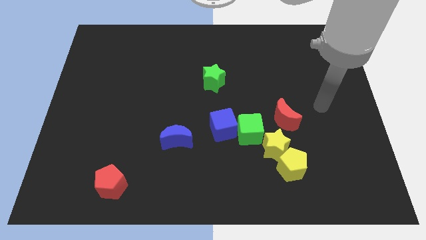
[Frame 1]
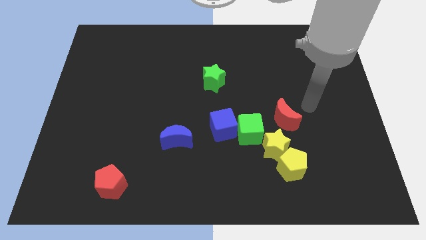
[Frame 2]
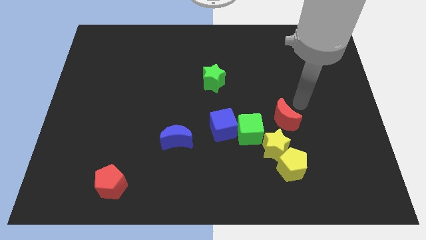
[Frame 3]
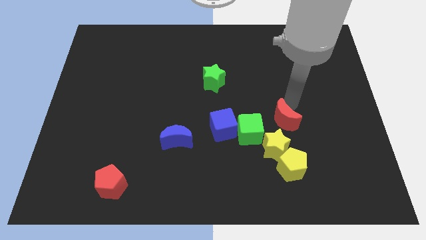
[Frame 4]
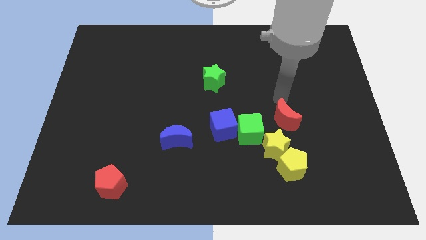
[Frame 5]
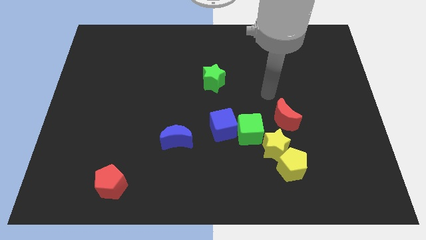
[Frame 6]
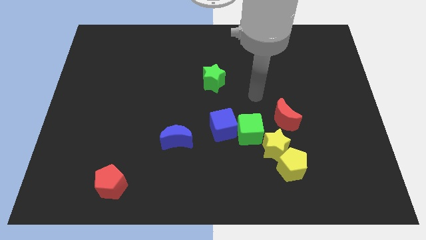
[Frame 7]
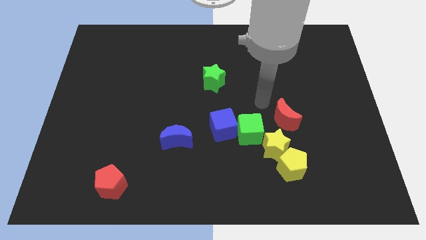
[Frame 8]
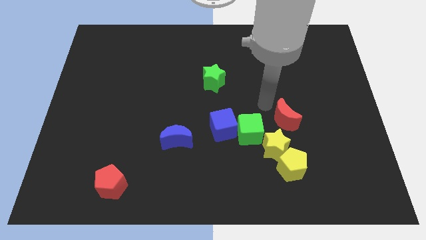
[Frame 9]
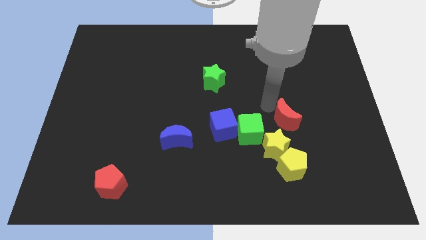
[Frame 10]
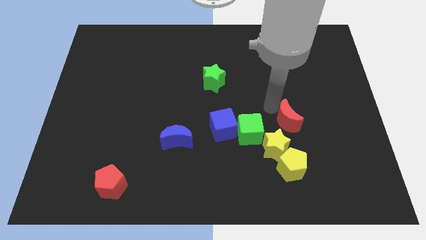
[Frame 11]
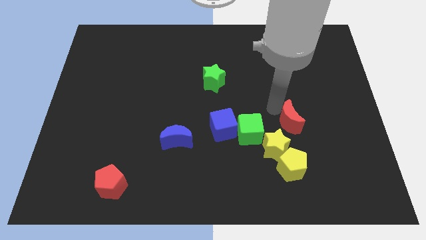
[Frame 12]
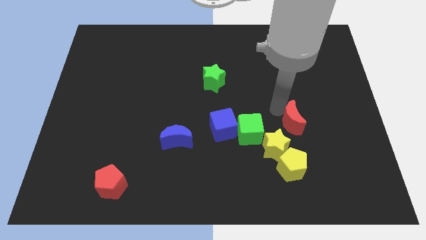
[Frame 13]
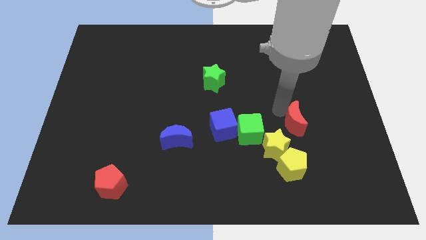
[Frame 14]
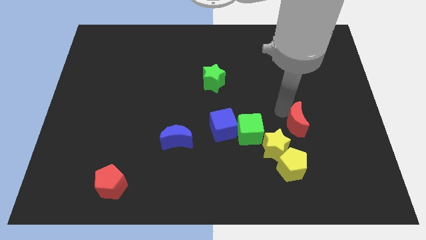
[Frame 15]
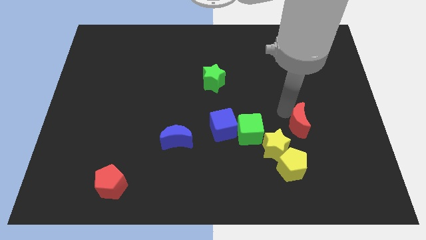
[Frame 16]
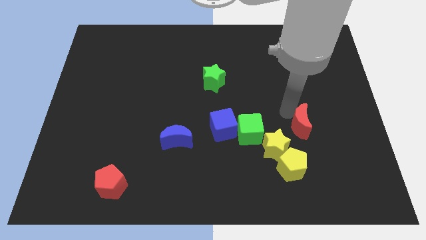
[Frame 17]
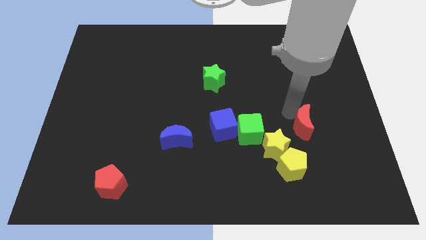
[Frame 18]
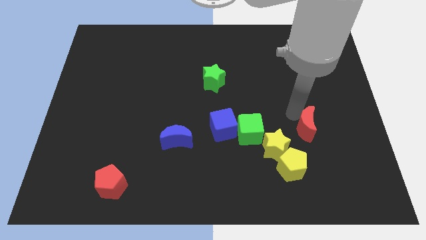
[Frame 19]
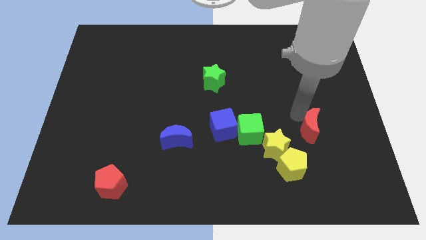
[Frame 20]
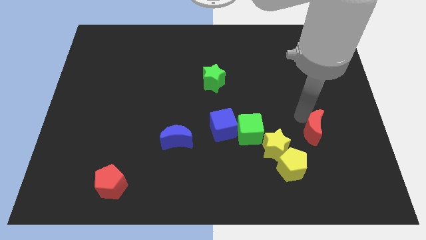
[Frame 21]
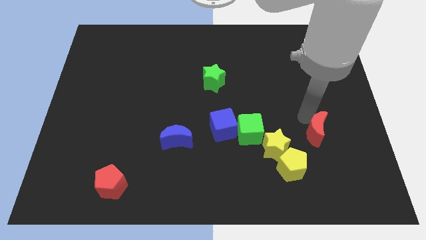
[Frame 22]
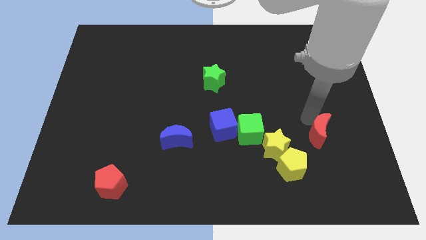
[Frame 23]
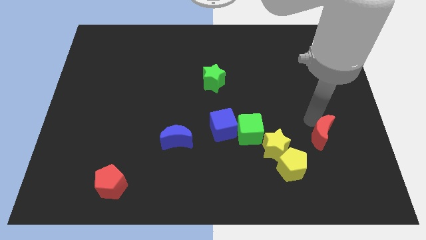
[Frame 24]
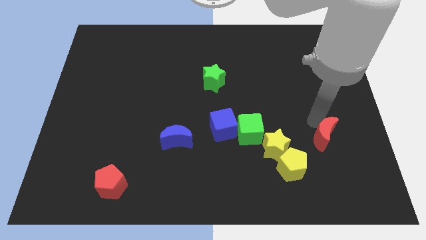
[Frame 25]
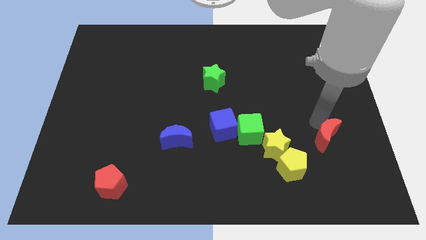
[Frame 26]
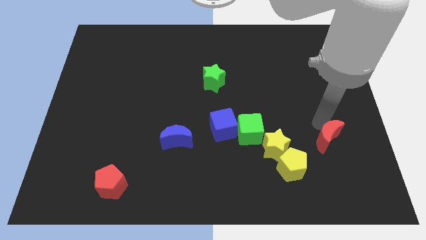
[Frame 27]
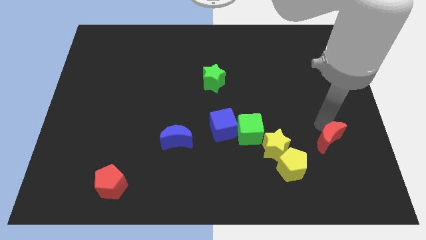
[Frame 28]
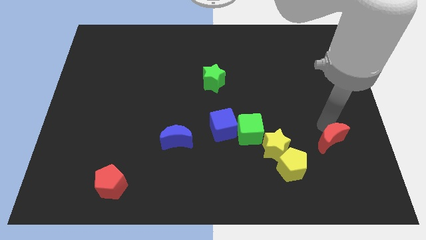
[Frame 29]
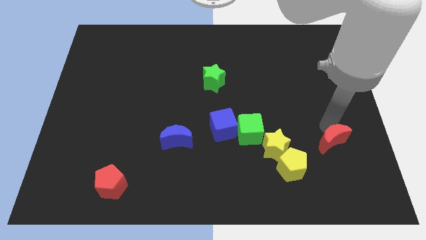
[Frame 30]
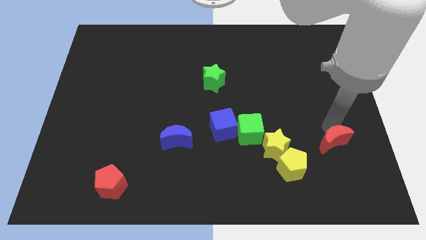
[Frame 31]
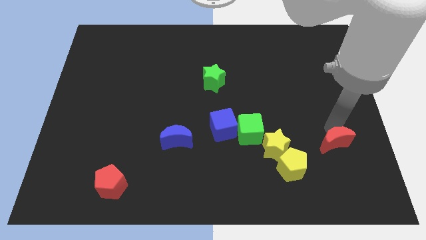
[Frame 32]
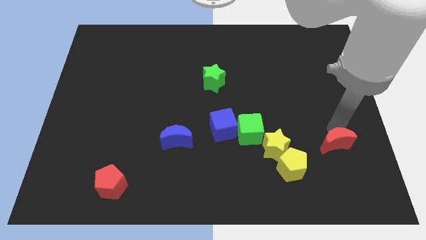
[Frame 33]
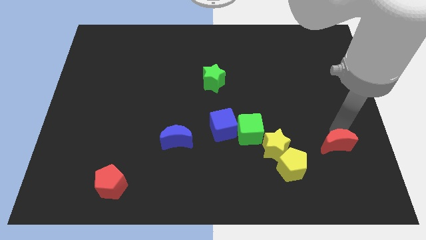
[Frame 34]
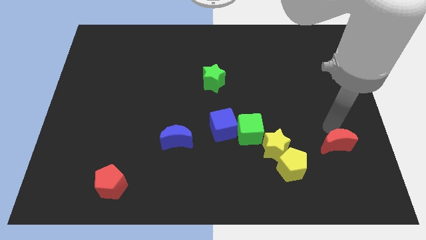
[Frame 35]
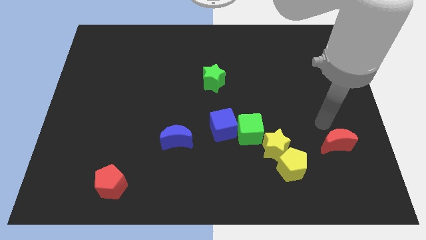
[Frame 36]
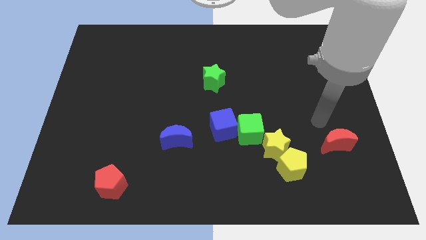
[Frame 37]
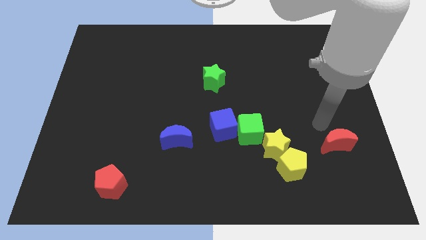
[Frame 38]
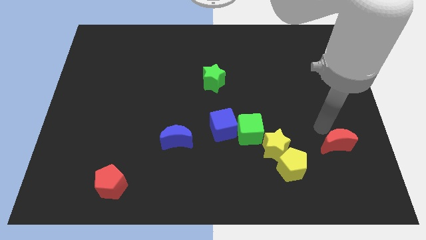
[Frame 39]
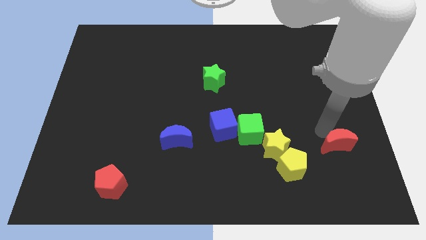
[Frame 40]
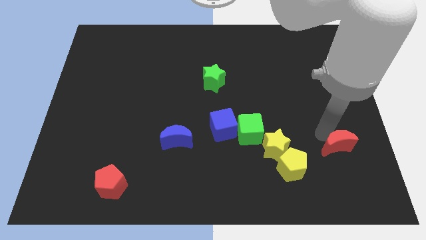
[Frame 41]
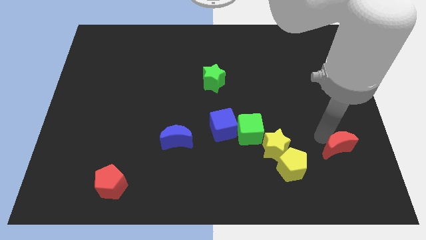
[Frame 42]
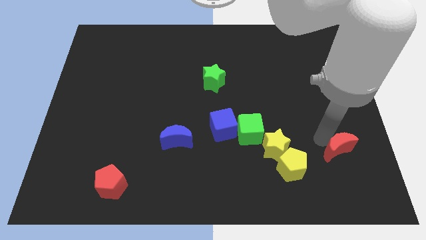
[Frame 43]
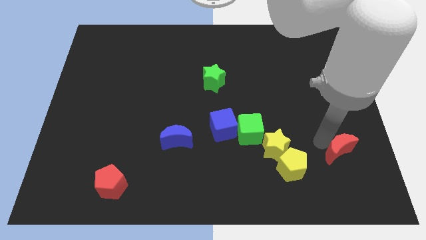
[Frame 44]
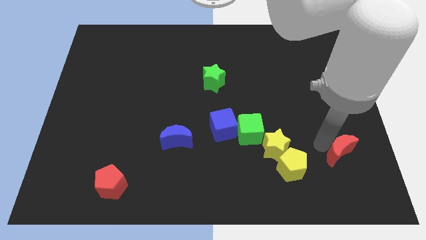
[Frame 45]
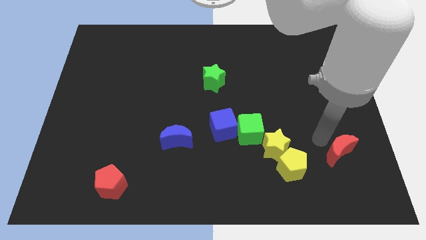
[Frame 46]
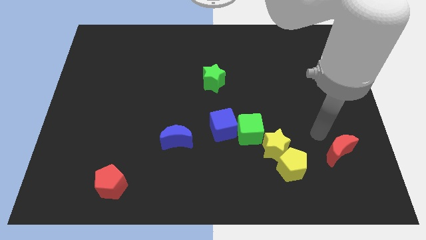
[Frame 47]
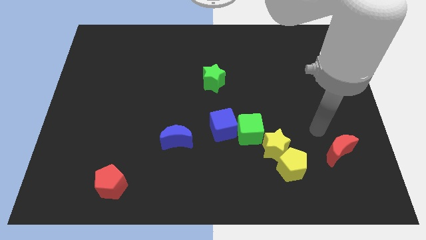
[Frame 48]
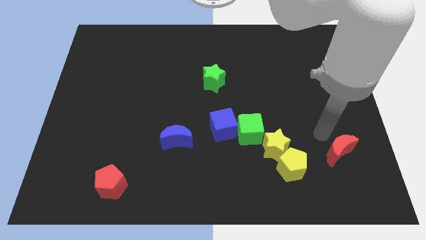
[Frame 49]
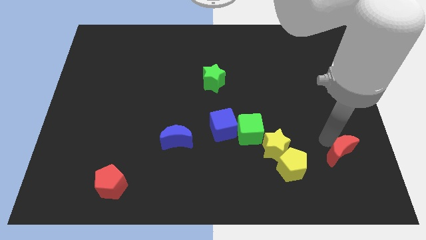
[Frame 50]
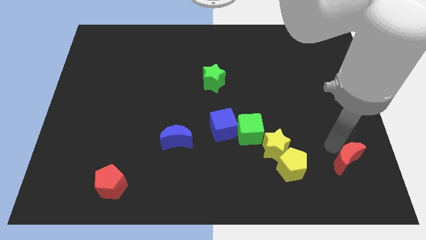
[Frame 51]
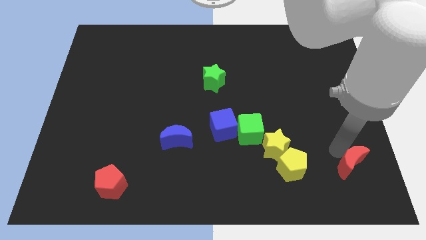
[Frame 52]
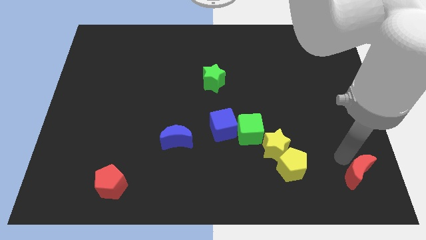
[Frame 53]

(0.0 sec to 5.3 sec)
put the red moon to the bottom right of the board
